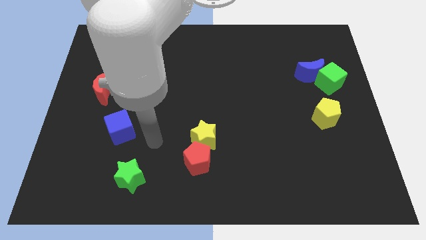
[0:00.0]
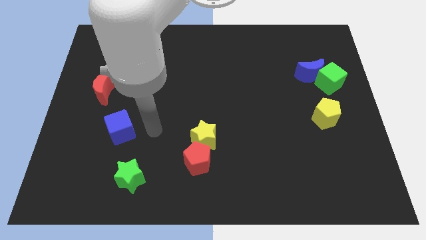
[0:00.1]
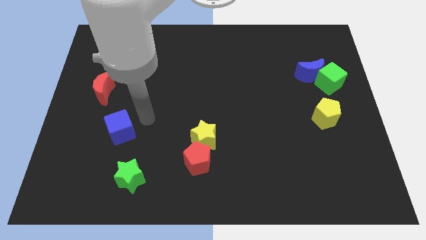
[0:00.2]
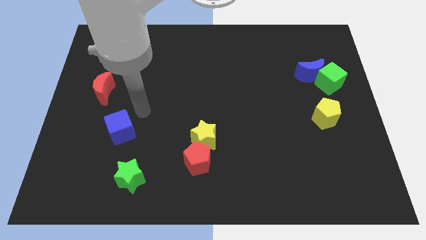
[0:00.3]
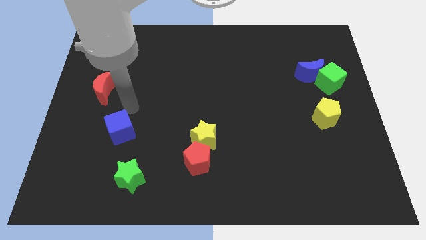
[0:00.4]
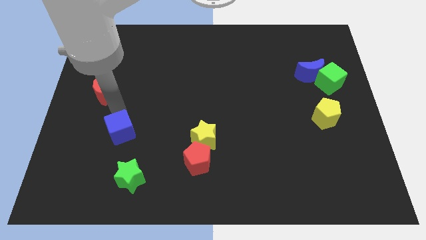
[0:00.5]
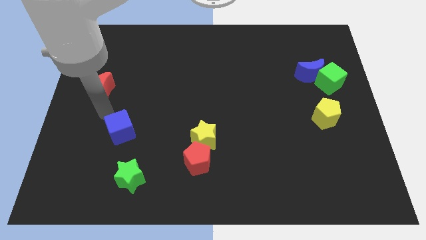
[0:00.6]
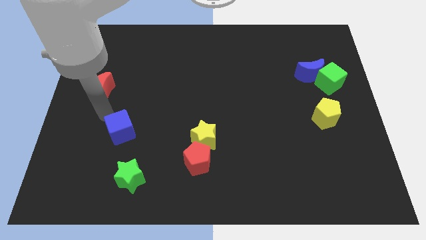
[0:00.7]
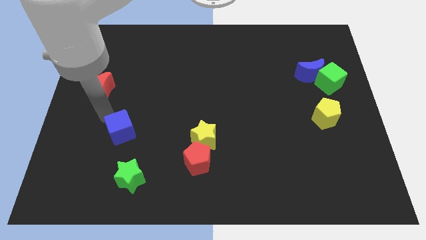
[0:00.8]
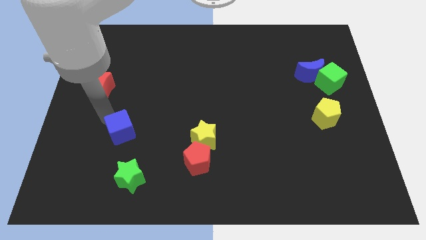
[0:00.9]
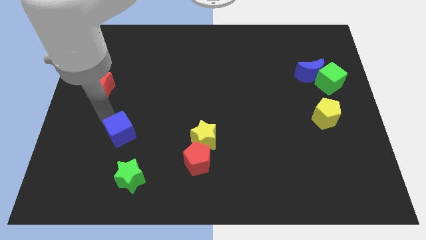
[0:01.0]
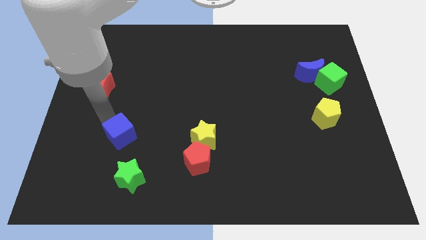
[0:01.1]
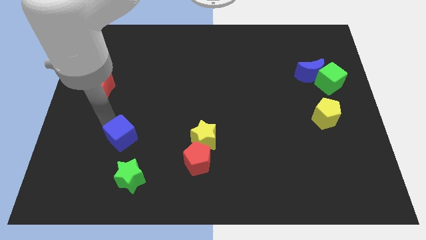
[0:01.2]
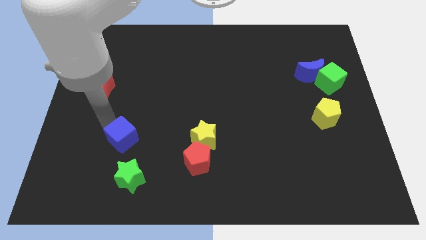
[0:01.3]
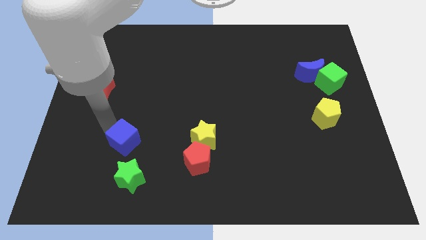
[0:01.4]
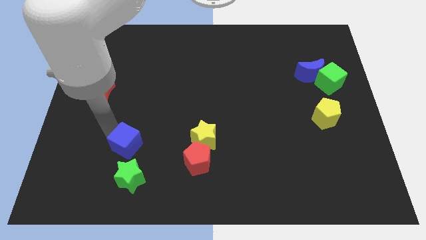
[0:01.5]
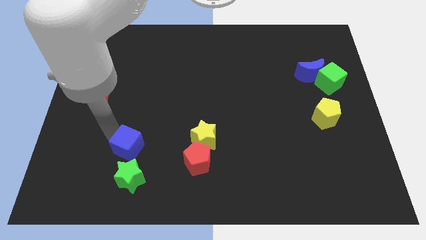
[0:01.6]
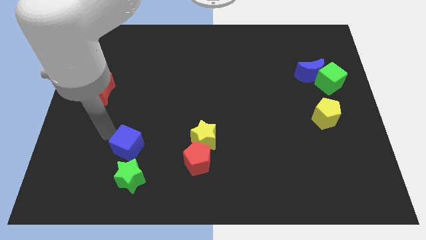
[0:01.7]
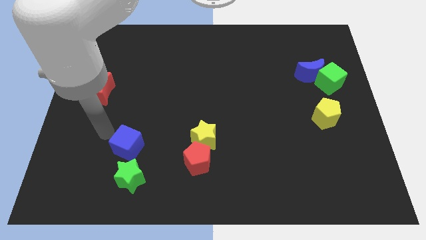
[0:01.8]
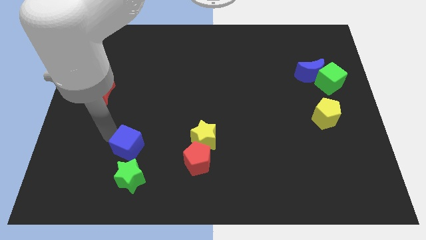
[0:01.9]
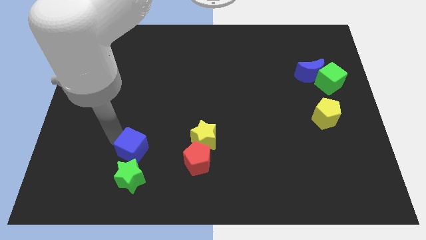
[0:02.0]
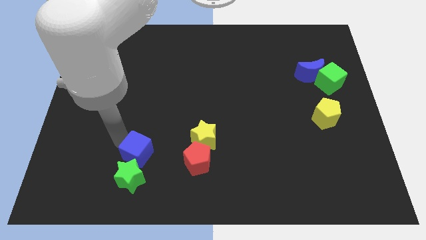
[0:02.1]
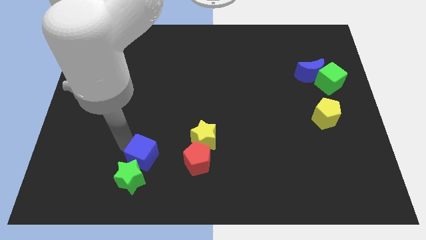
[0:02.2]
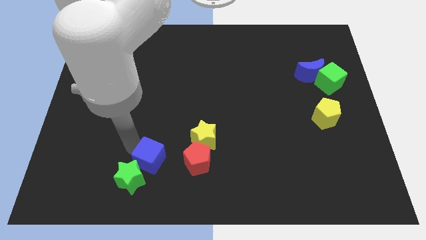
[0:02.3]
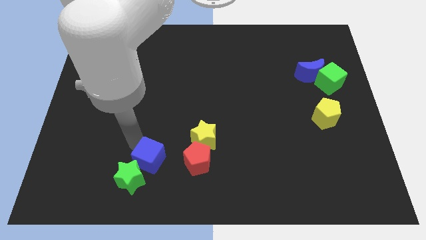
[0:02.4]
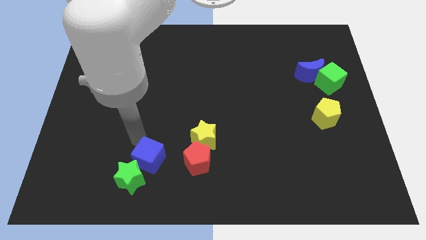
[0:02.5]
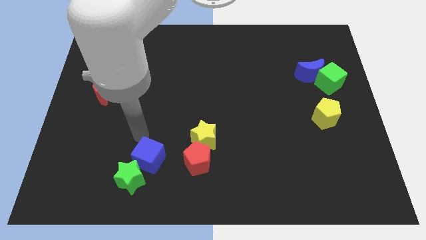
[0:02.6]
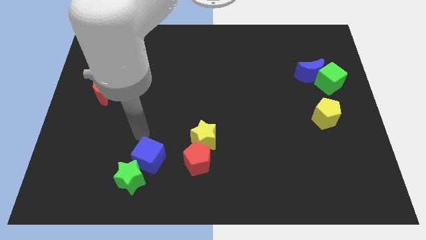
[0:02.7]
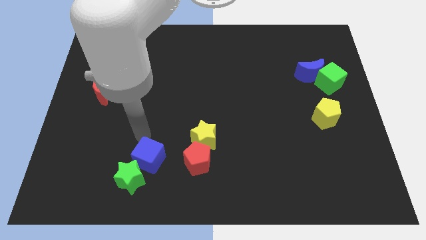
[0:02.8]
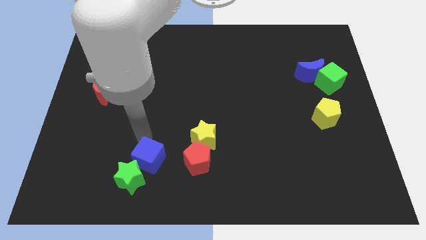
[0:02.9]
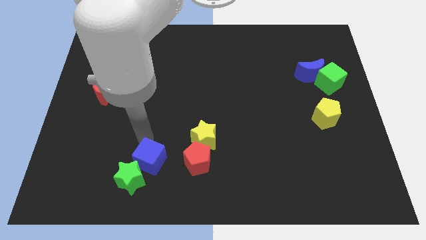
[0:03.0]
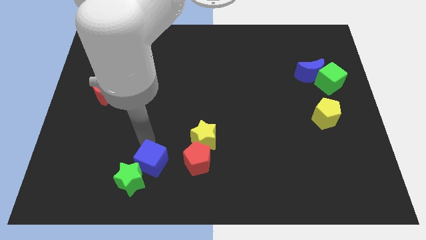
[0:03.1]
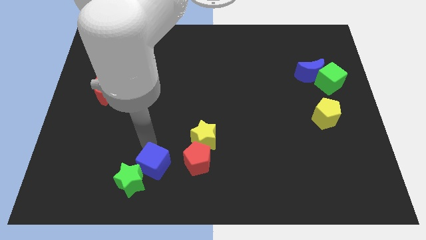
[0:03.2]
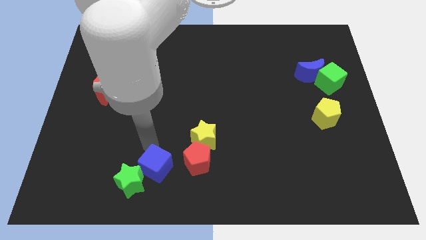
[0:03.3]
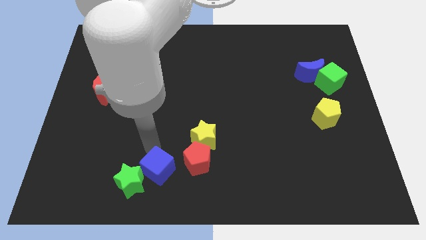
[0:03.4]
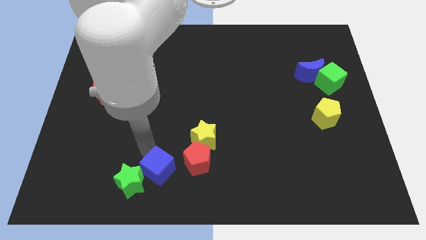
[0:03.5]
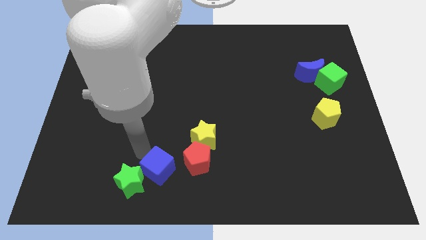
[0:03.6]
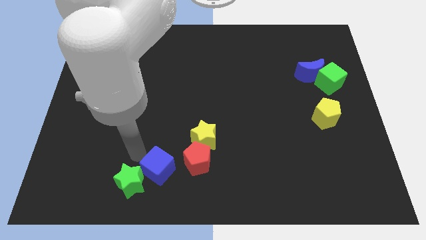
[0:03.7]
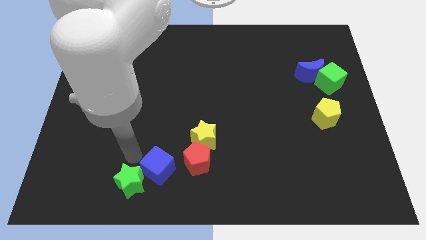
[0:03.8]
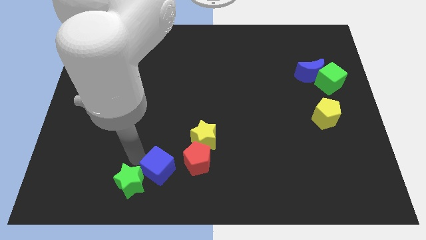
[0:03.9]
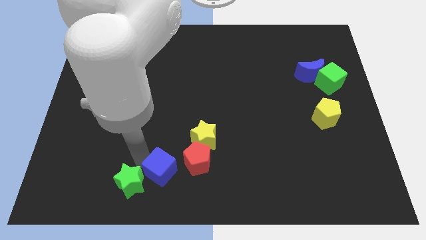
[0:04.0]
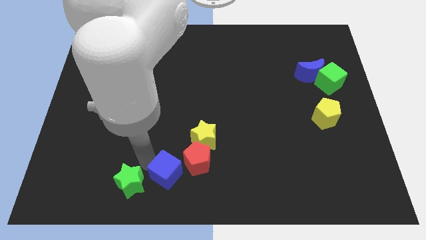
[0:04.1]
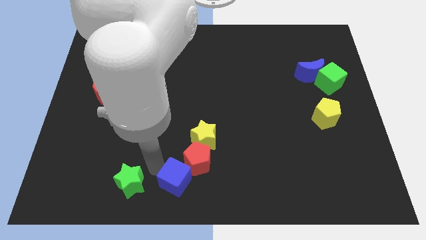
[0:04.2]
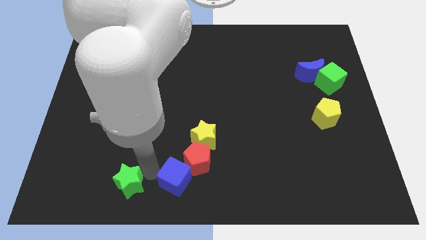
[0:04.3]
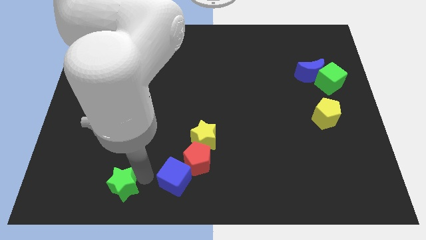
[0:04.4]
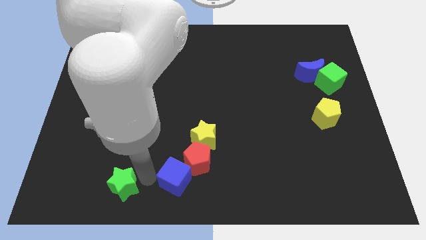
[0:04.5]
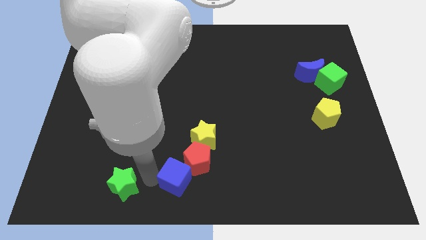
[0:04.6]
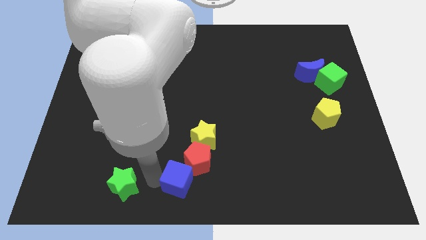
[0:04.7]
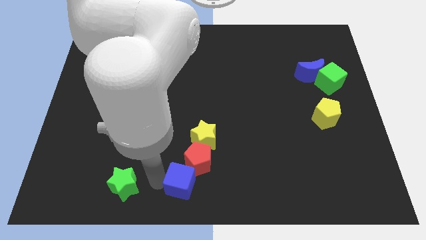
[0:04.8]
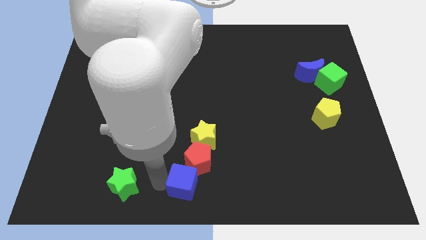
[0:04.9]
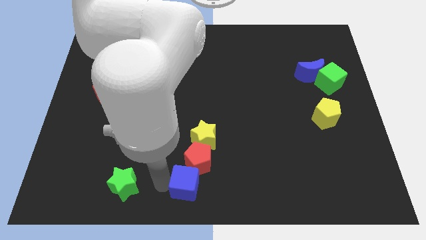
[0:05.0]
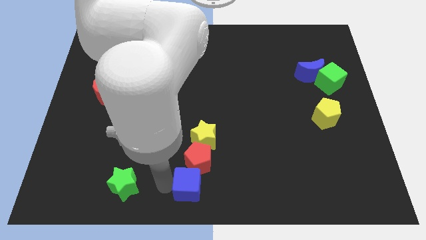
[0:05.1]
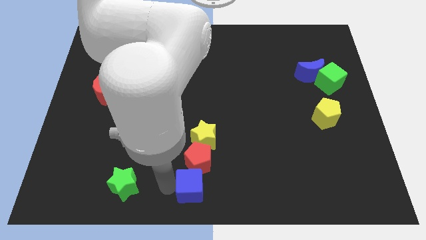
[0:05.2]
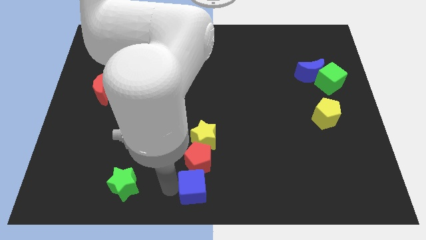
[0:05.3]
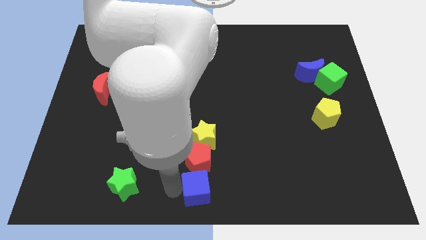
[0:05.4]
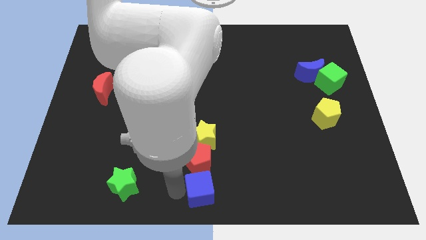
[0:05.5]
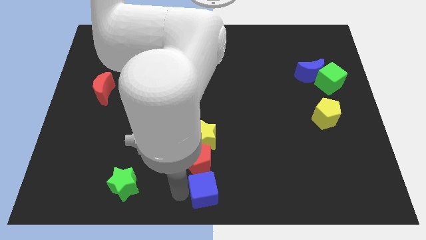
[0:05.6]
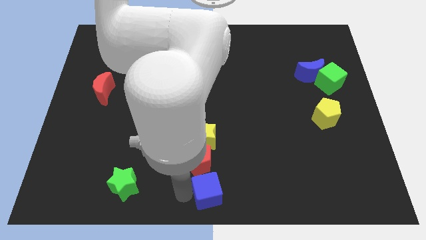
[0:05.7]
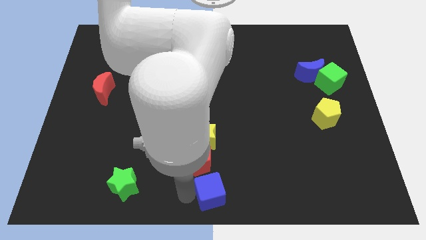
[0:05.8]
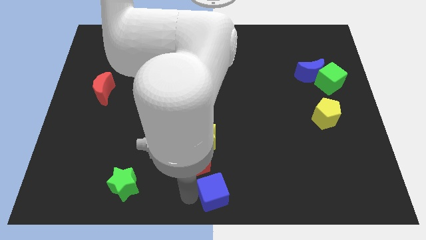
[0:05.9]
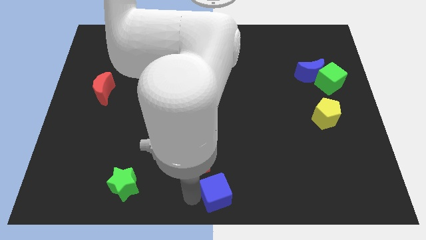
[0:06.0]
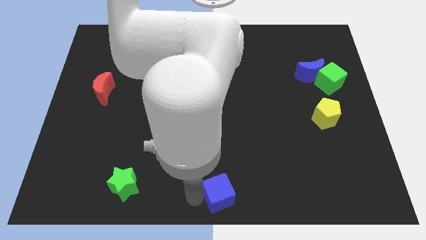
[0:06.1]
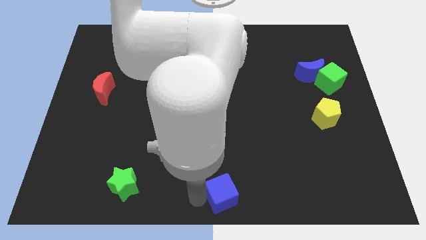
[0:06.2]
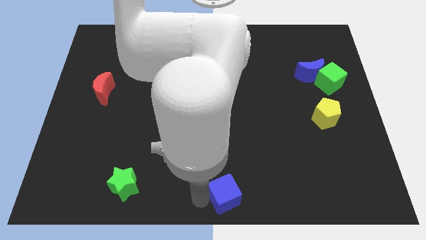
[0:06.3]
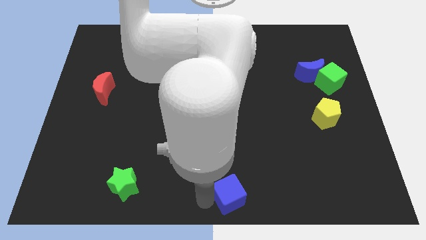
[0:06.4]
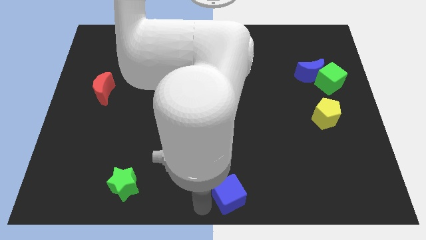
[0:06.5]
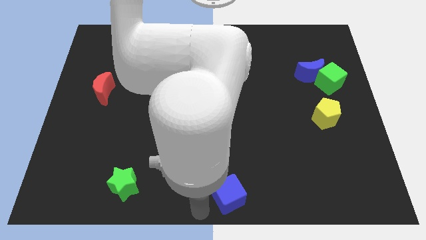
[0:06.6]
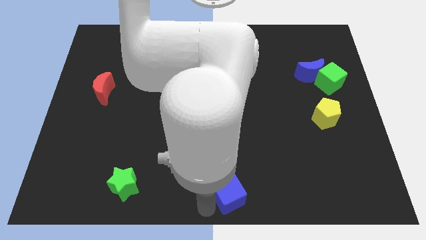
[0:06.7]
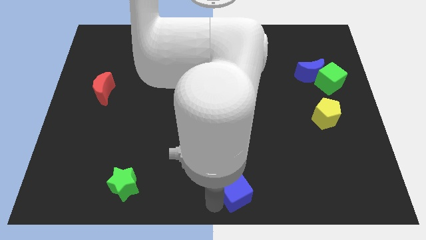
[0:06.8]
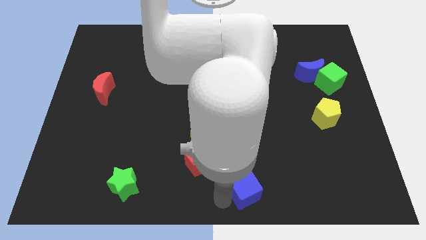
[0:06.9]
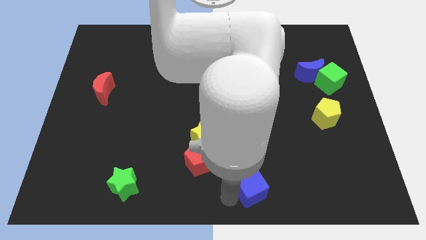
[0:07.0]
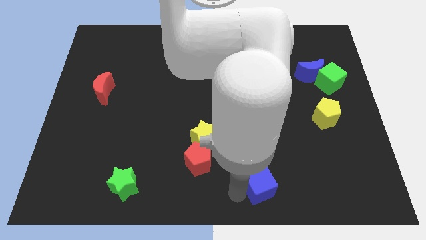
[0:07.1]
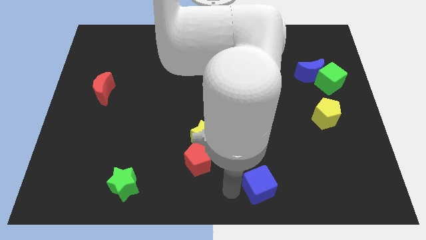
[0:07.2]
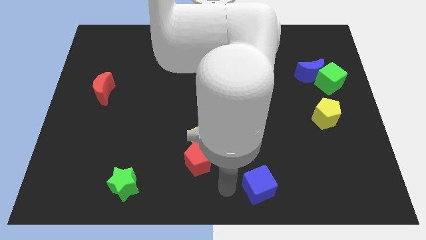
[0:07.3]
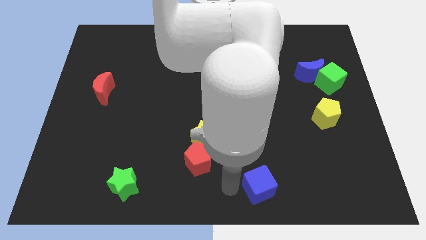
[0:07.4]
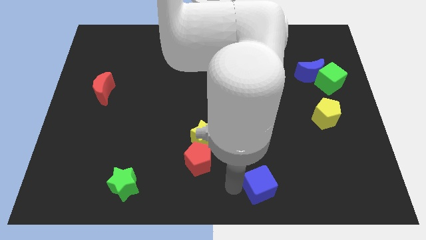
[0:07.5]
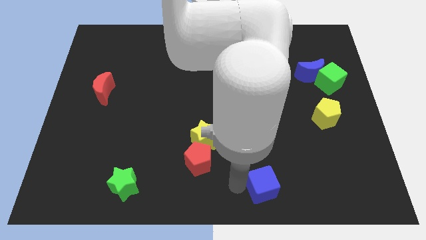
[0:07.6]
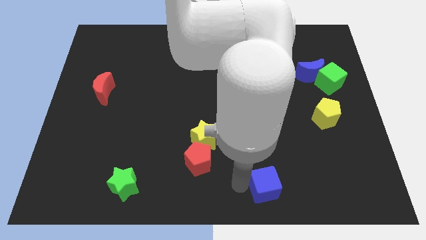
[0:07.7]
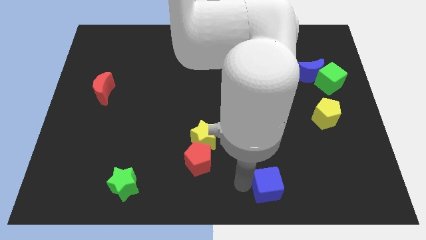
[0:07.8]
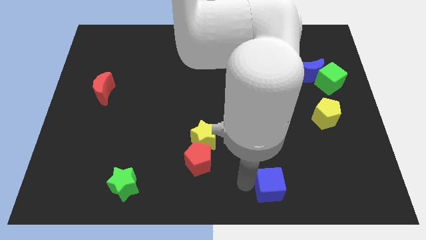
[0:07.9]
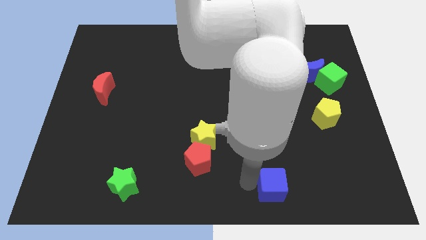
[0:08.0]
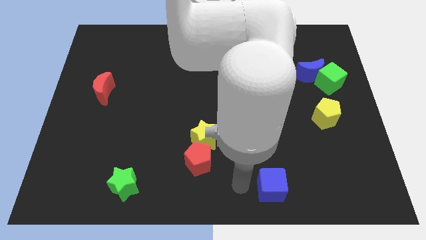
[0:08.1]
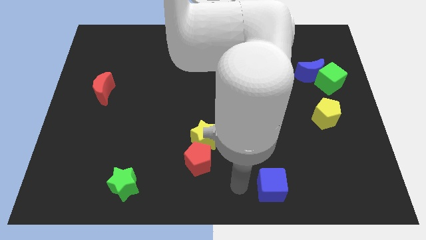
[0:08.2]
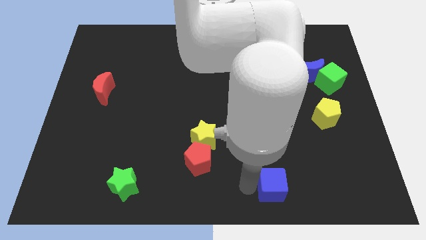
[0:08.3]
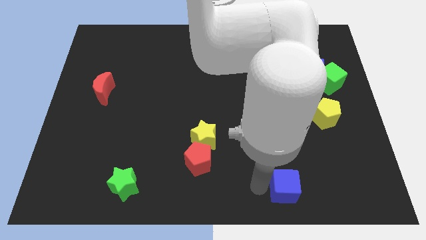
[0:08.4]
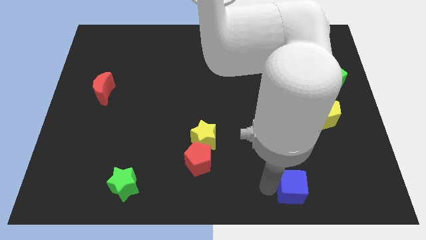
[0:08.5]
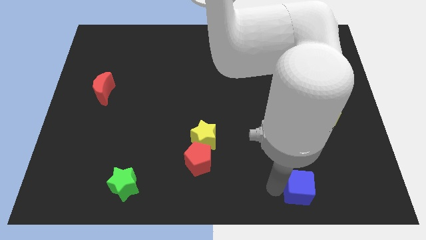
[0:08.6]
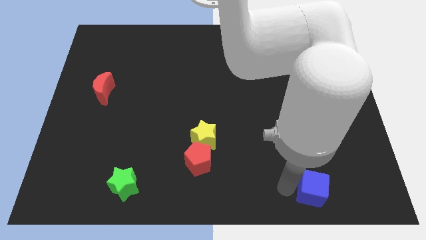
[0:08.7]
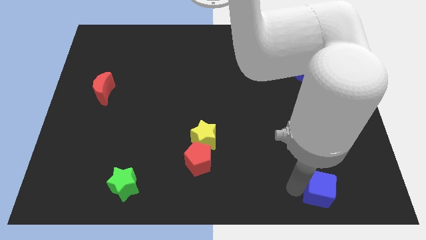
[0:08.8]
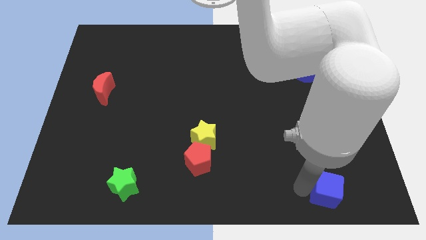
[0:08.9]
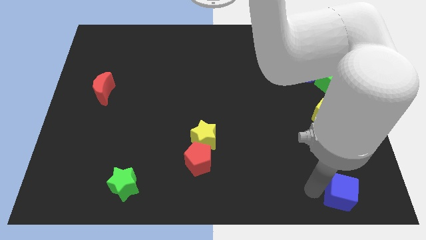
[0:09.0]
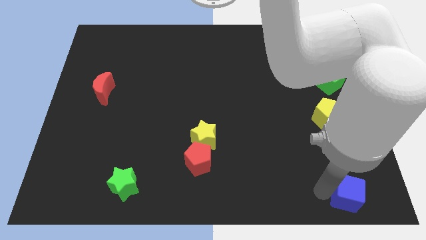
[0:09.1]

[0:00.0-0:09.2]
push the blue cube to the bottom right of the board
